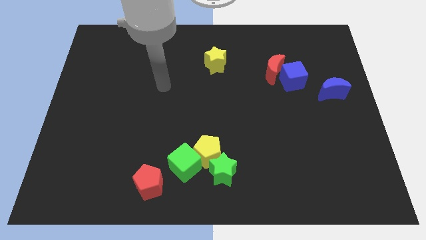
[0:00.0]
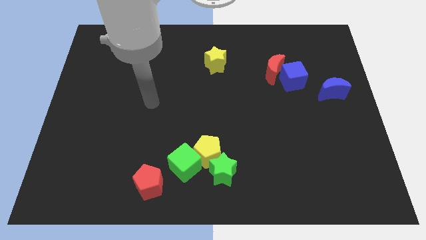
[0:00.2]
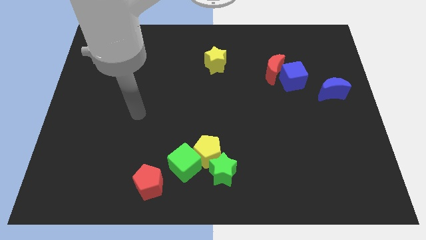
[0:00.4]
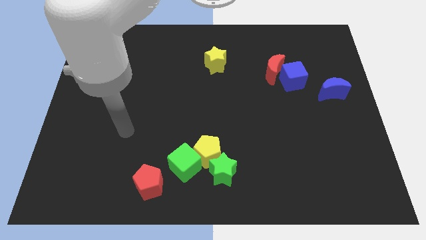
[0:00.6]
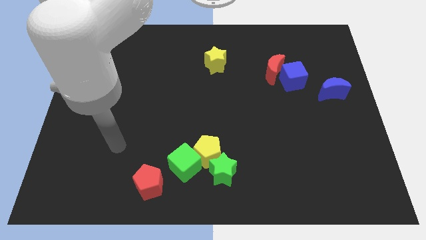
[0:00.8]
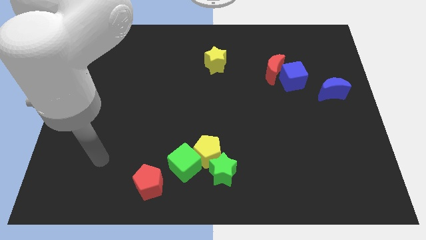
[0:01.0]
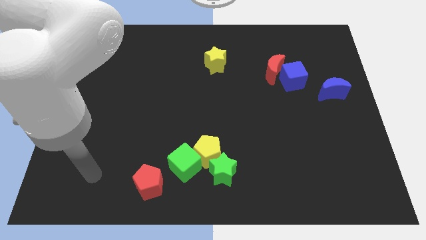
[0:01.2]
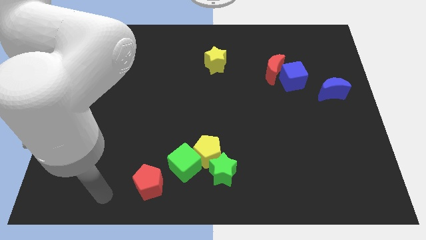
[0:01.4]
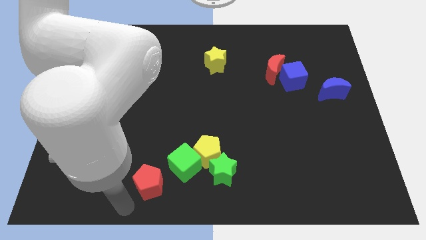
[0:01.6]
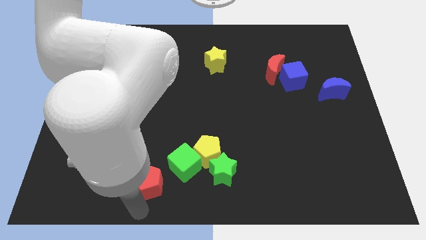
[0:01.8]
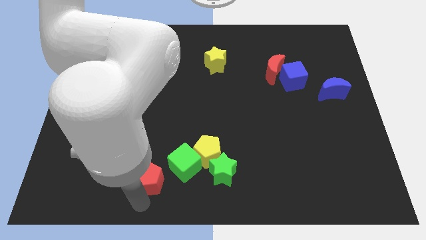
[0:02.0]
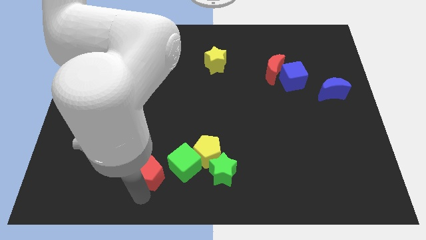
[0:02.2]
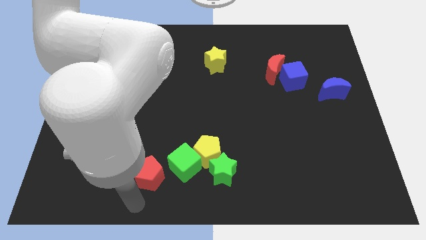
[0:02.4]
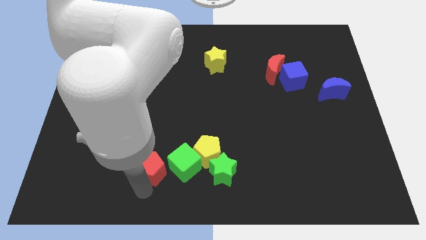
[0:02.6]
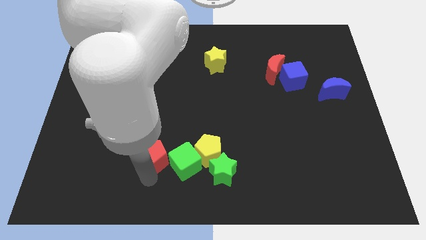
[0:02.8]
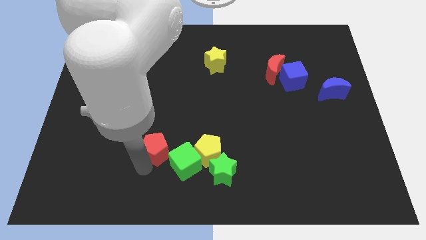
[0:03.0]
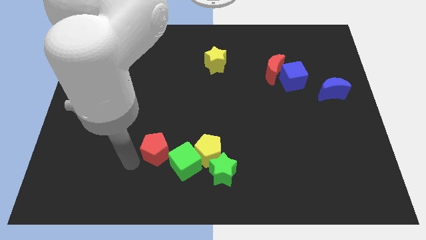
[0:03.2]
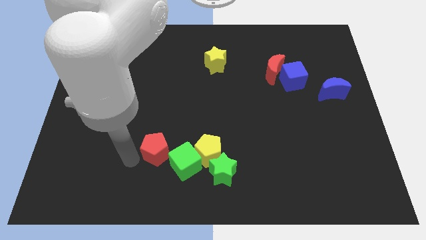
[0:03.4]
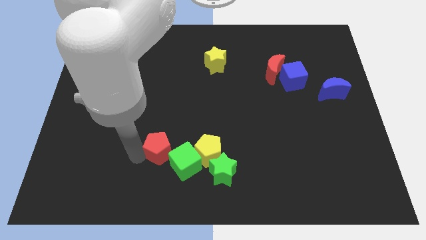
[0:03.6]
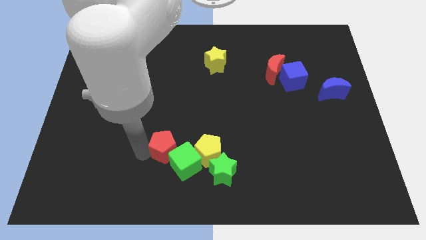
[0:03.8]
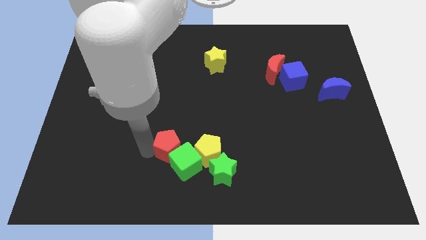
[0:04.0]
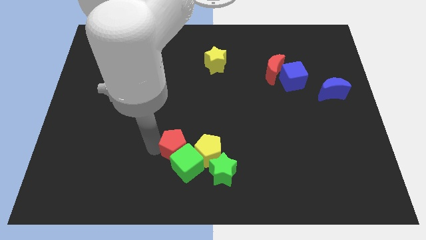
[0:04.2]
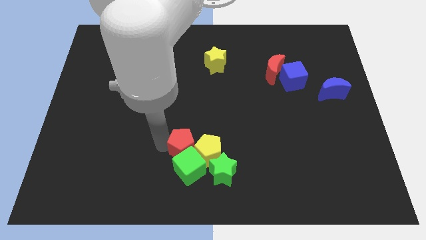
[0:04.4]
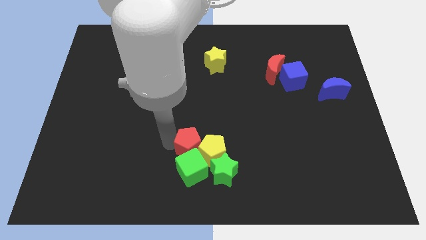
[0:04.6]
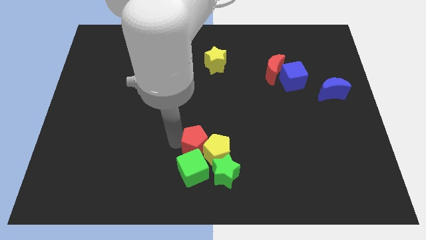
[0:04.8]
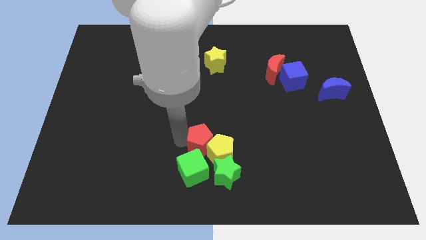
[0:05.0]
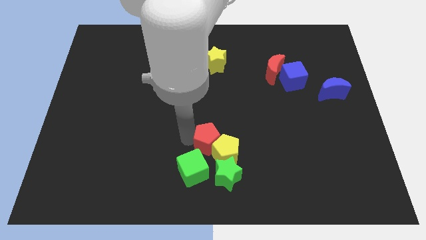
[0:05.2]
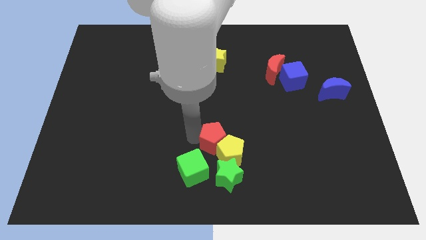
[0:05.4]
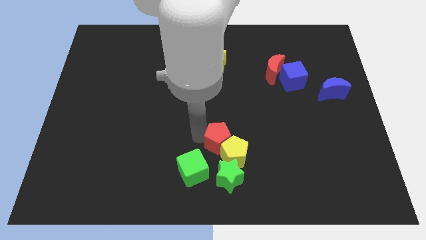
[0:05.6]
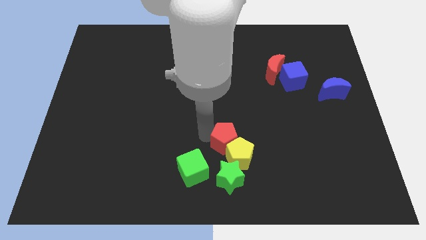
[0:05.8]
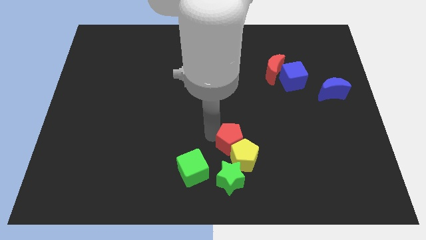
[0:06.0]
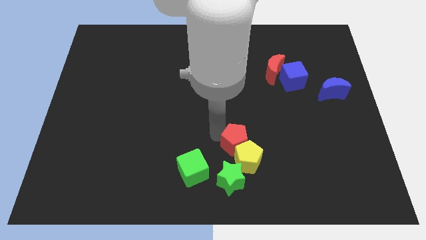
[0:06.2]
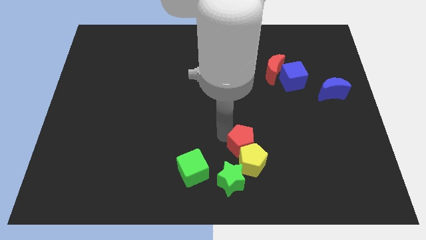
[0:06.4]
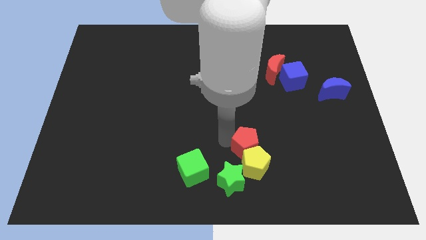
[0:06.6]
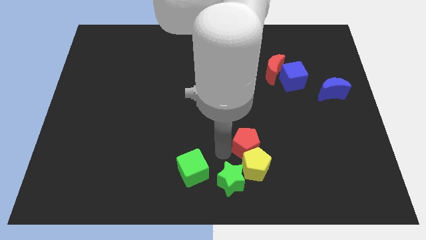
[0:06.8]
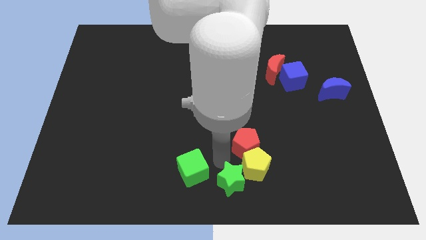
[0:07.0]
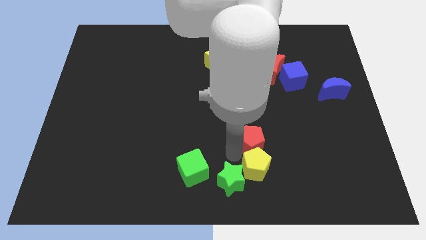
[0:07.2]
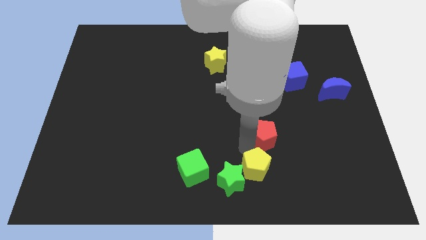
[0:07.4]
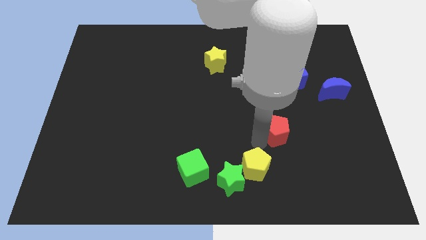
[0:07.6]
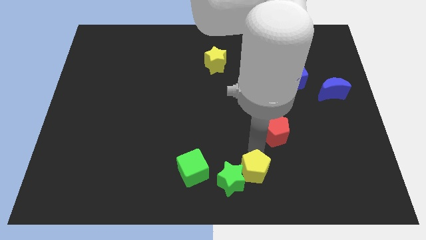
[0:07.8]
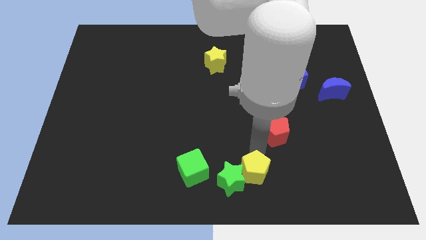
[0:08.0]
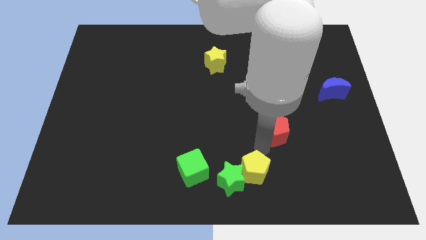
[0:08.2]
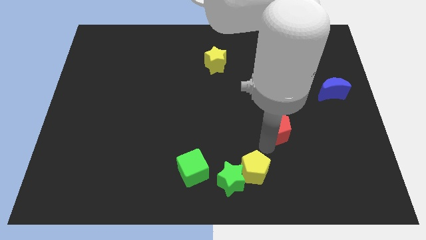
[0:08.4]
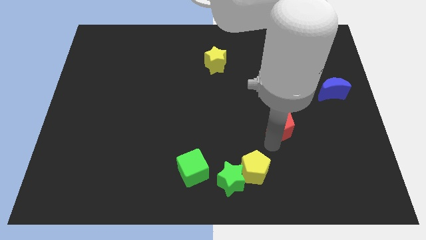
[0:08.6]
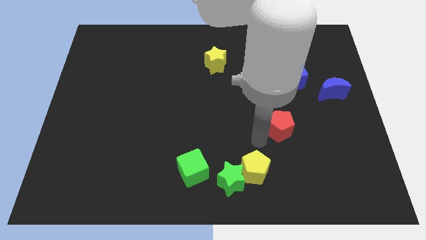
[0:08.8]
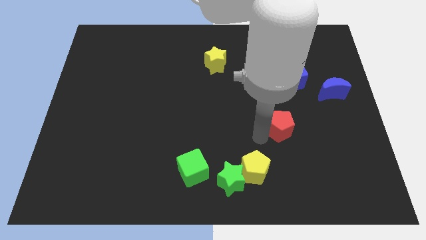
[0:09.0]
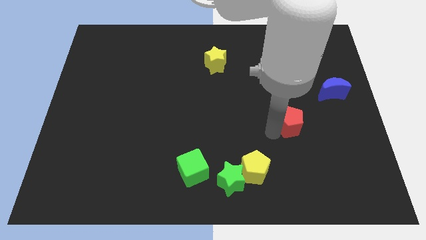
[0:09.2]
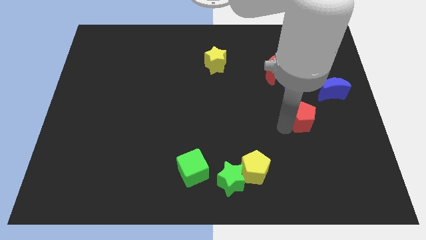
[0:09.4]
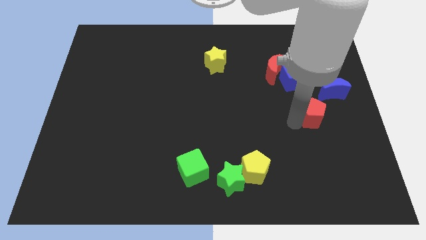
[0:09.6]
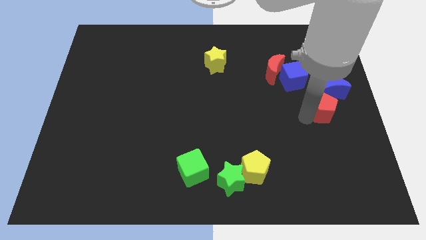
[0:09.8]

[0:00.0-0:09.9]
put the red pentagon to the right side of the board

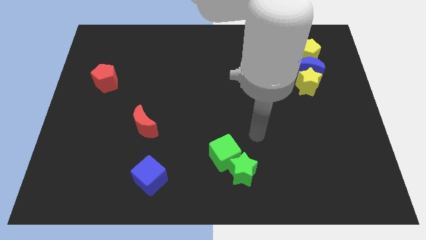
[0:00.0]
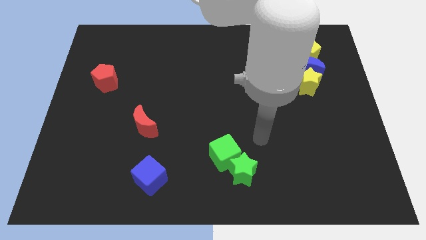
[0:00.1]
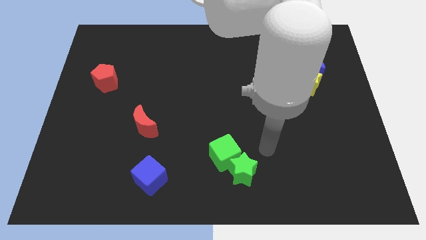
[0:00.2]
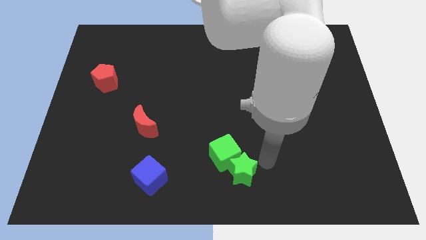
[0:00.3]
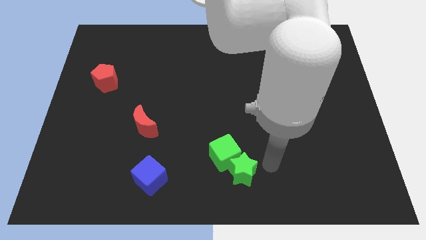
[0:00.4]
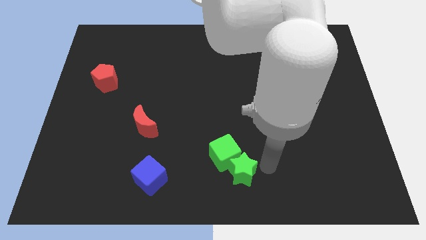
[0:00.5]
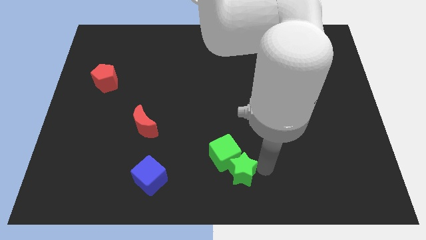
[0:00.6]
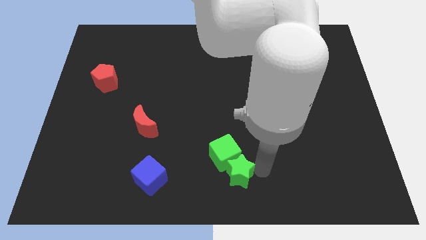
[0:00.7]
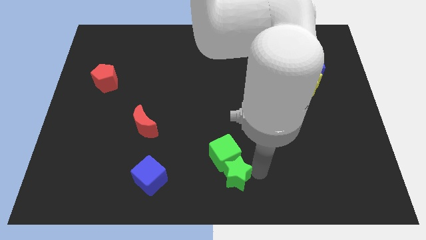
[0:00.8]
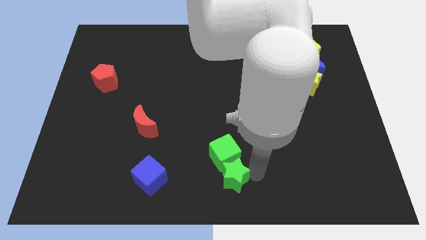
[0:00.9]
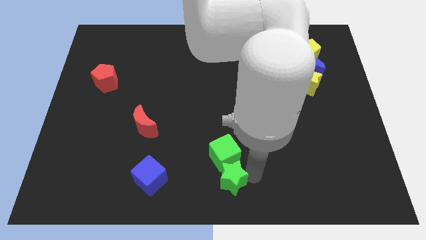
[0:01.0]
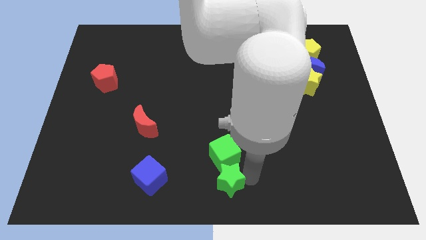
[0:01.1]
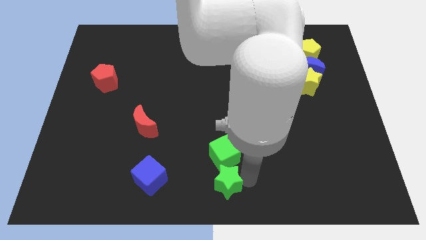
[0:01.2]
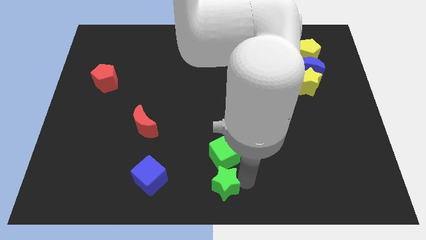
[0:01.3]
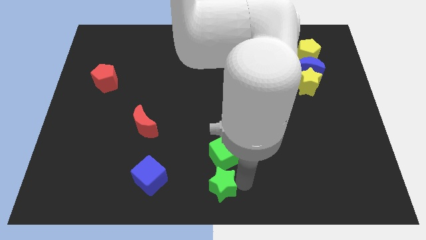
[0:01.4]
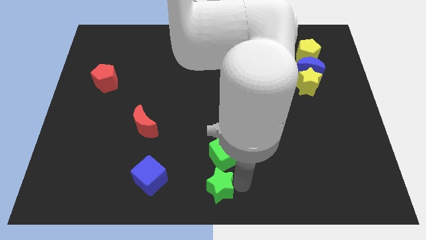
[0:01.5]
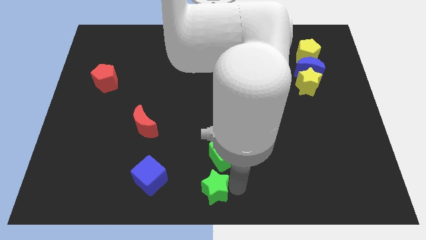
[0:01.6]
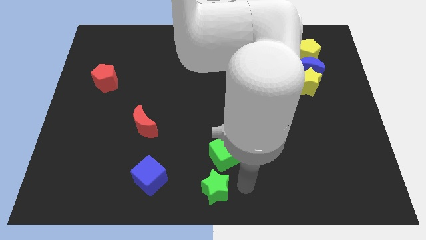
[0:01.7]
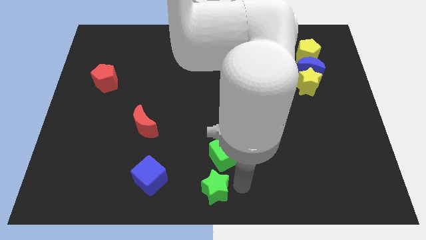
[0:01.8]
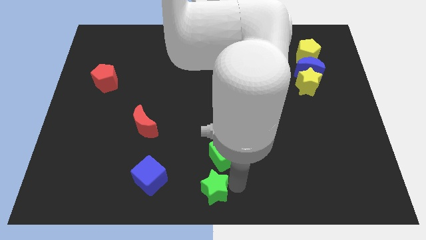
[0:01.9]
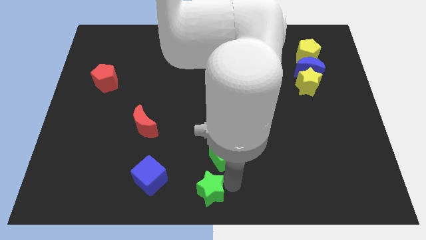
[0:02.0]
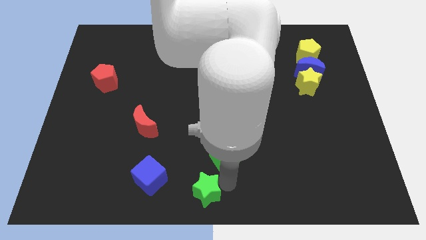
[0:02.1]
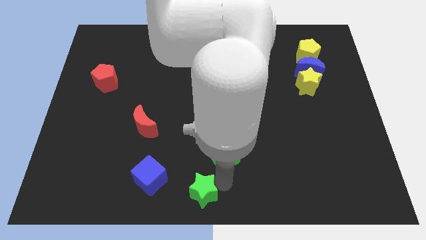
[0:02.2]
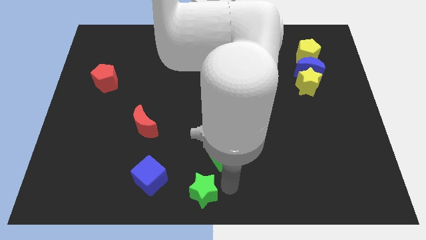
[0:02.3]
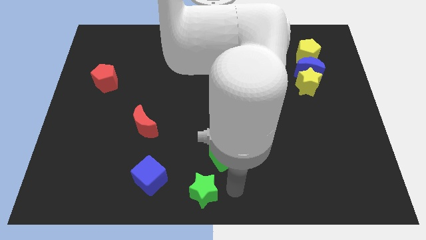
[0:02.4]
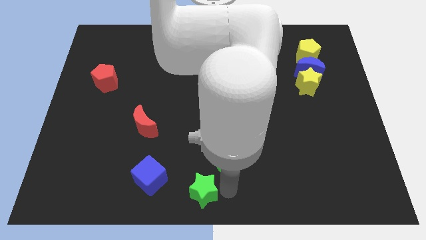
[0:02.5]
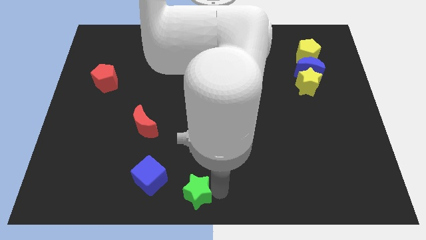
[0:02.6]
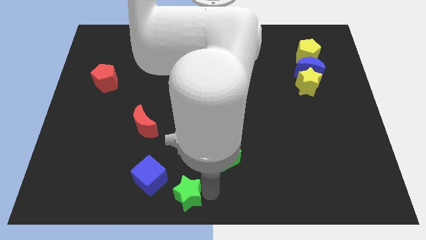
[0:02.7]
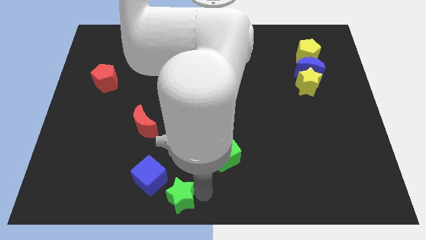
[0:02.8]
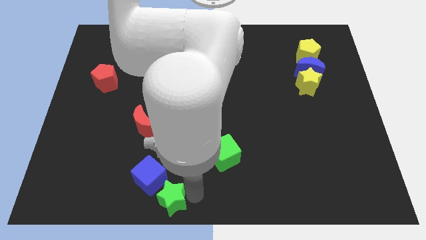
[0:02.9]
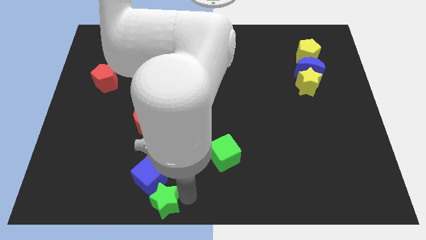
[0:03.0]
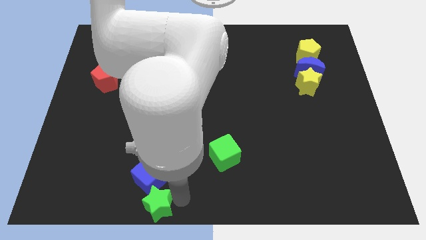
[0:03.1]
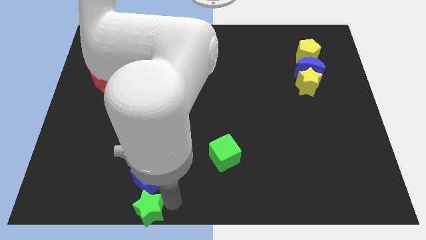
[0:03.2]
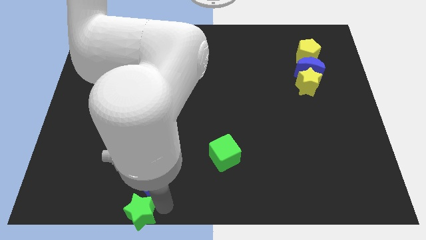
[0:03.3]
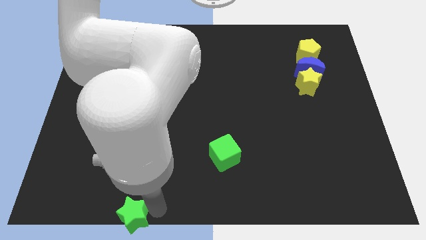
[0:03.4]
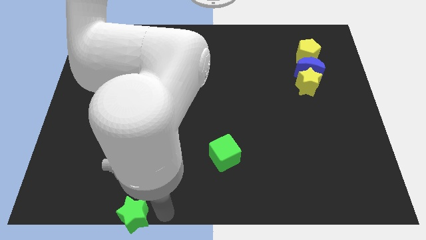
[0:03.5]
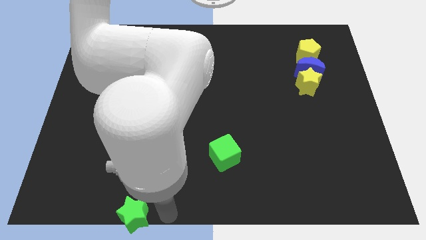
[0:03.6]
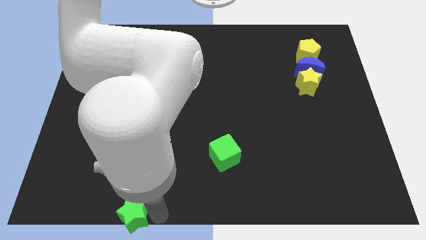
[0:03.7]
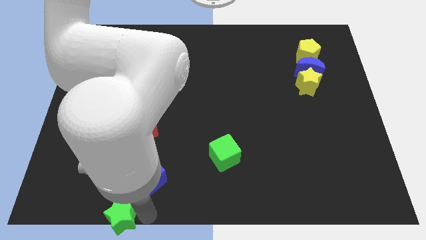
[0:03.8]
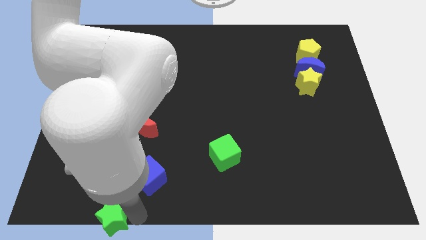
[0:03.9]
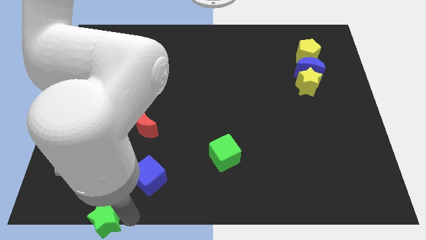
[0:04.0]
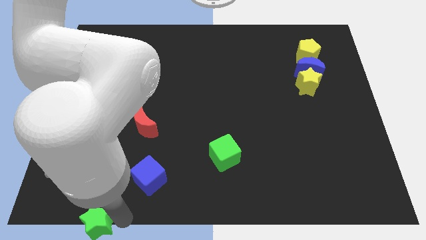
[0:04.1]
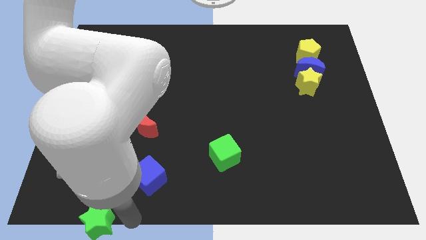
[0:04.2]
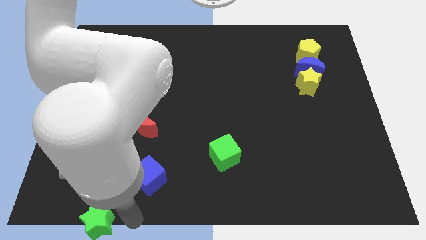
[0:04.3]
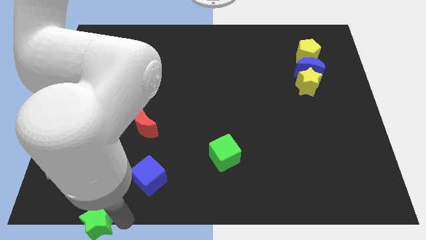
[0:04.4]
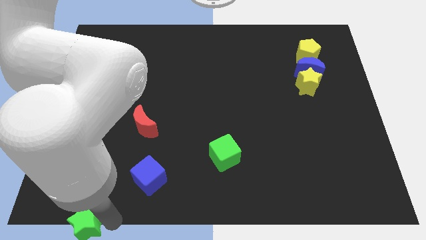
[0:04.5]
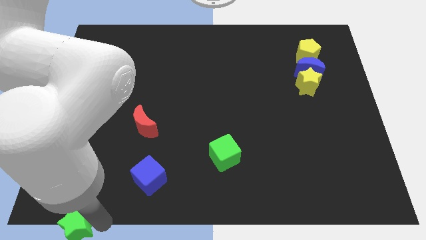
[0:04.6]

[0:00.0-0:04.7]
move the green star to the bottom left corner
